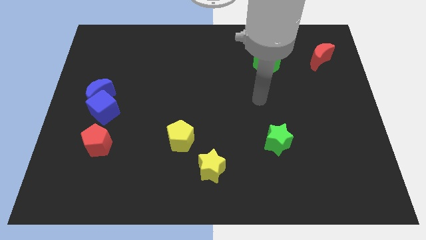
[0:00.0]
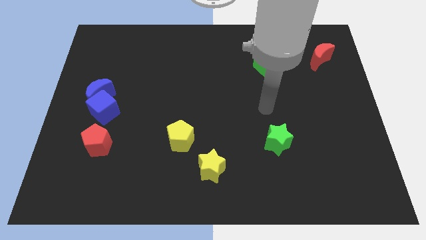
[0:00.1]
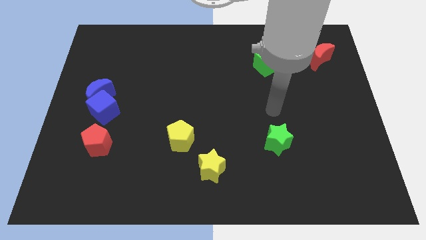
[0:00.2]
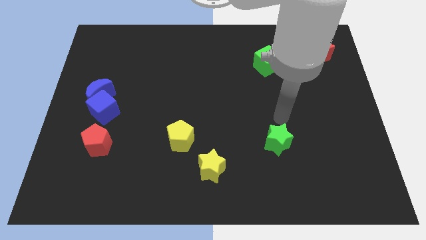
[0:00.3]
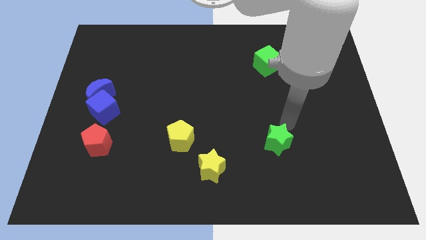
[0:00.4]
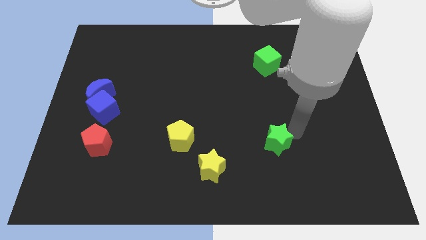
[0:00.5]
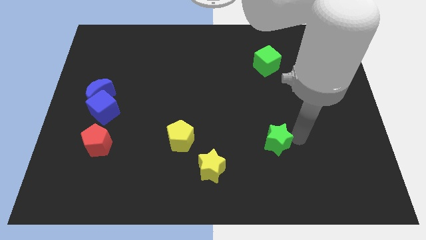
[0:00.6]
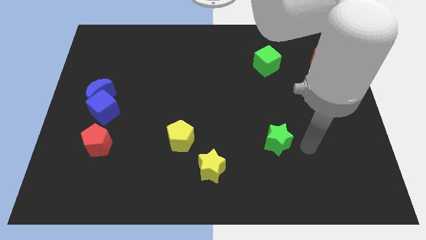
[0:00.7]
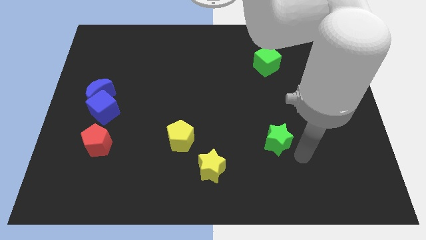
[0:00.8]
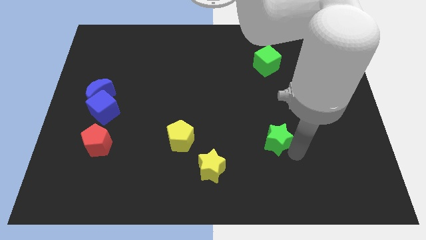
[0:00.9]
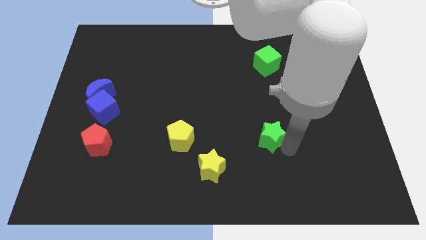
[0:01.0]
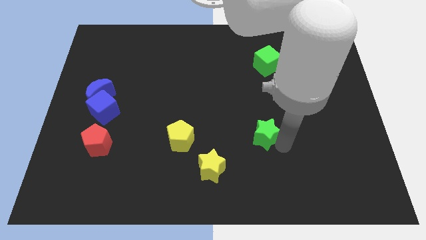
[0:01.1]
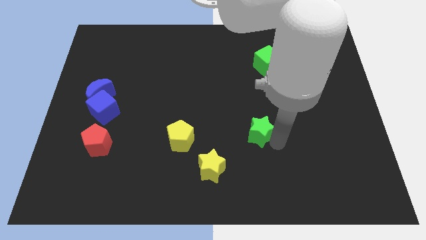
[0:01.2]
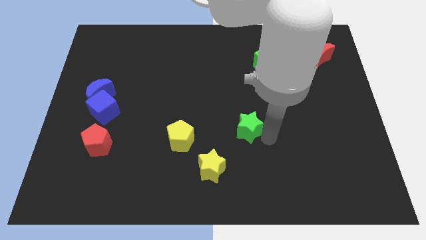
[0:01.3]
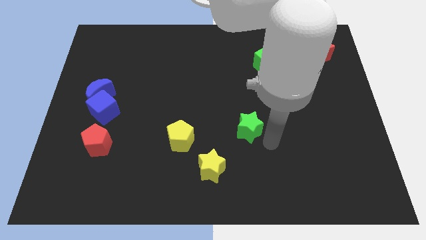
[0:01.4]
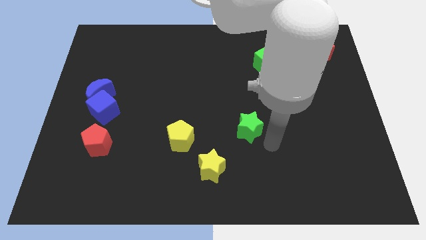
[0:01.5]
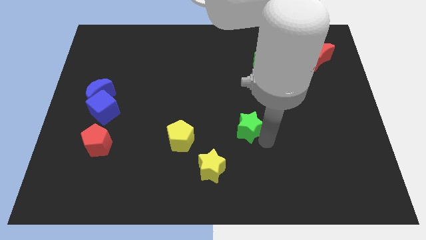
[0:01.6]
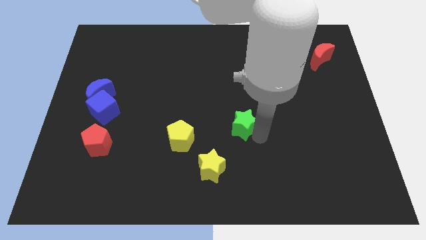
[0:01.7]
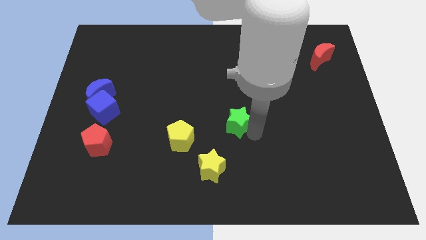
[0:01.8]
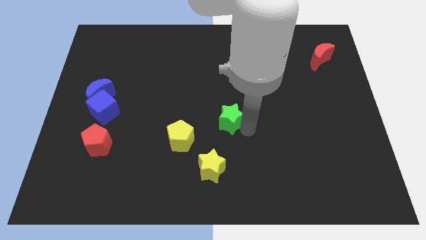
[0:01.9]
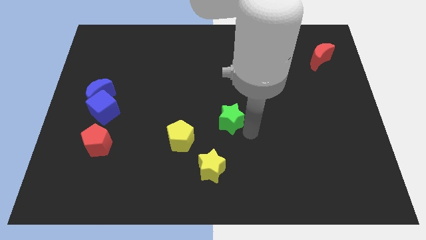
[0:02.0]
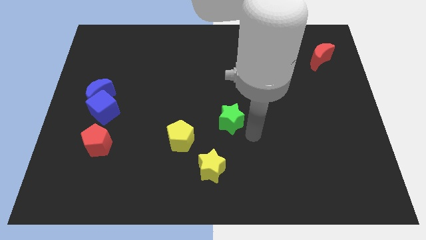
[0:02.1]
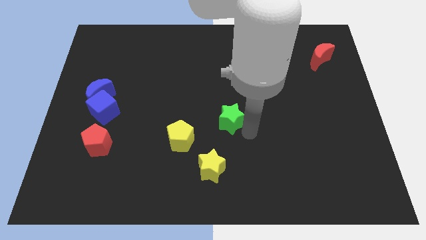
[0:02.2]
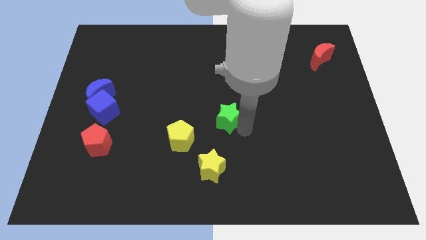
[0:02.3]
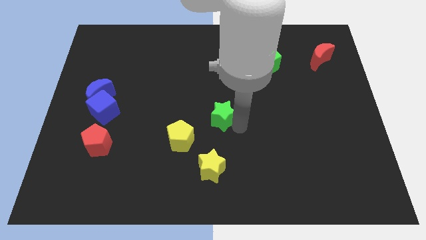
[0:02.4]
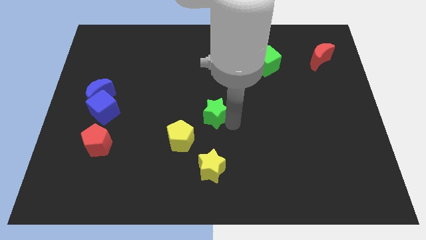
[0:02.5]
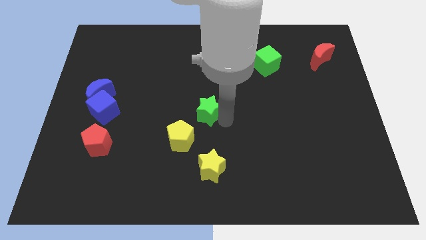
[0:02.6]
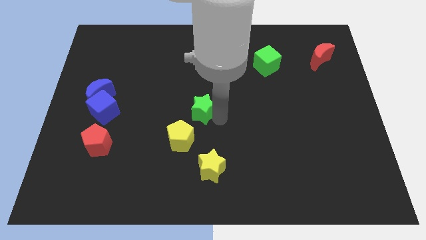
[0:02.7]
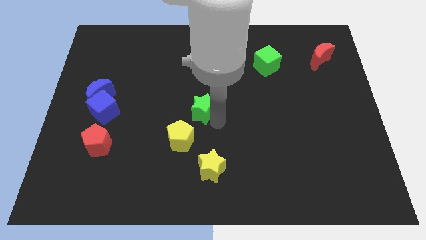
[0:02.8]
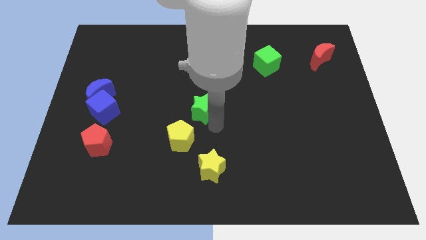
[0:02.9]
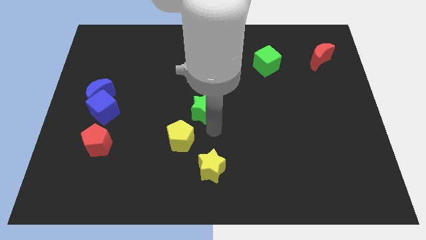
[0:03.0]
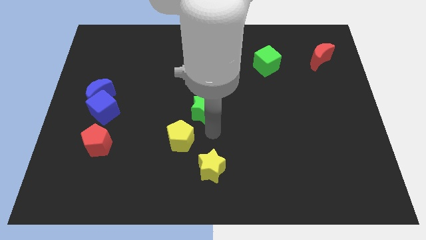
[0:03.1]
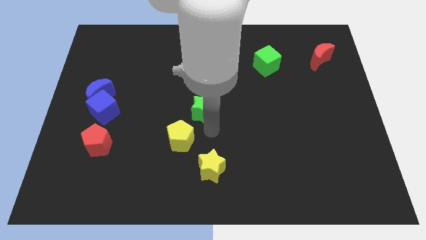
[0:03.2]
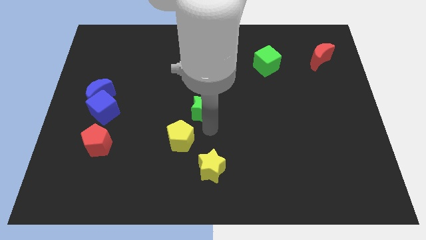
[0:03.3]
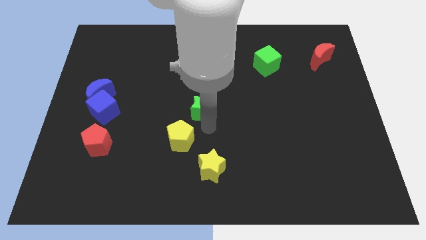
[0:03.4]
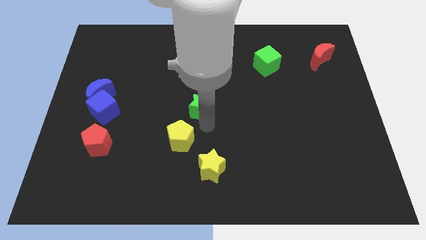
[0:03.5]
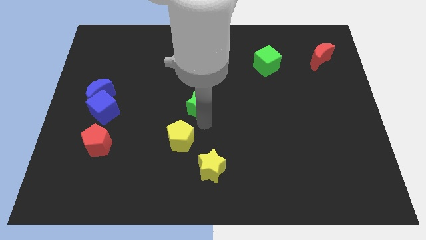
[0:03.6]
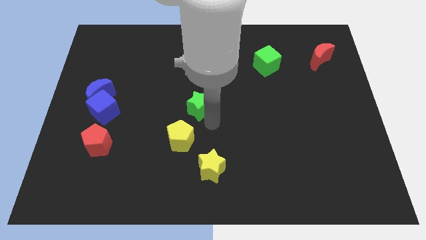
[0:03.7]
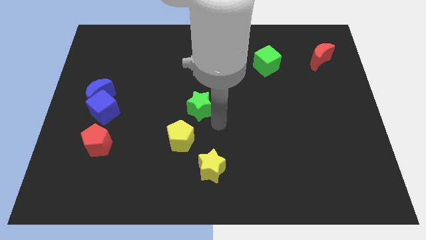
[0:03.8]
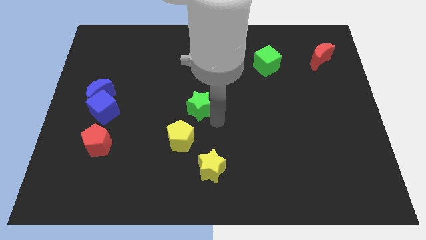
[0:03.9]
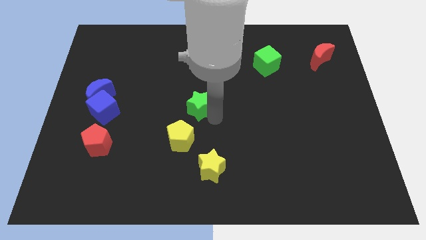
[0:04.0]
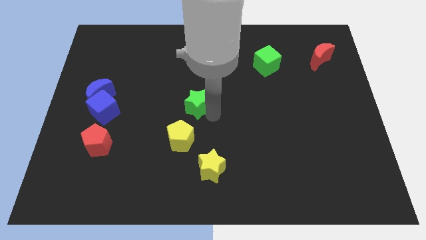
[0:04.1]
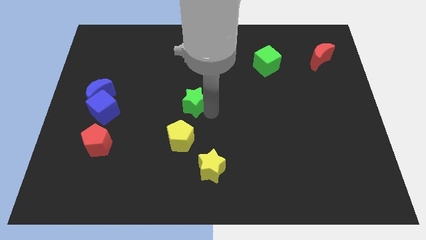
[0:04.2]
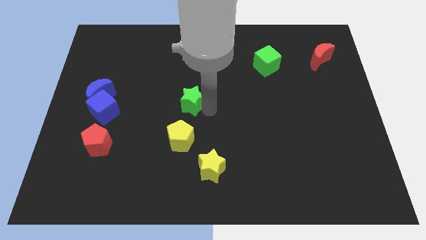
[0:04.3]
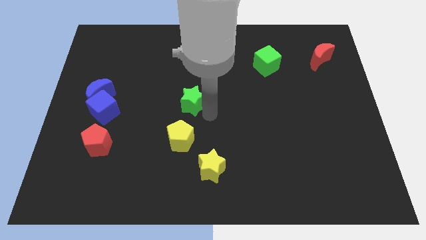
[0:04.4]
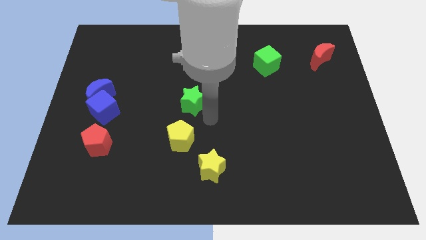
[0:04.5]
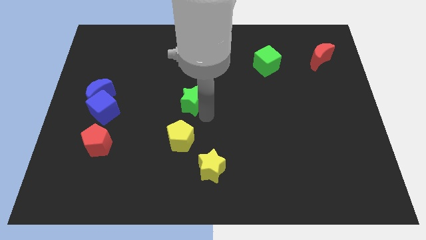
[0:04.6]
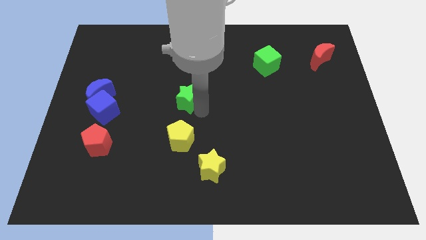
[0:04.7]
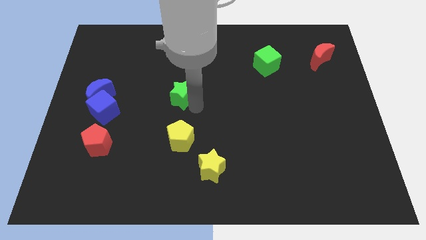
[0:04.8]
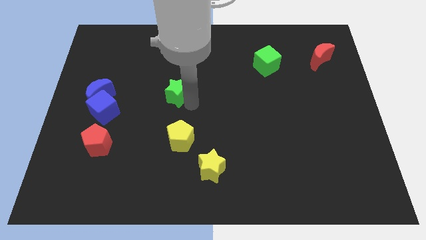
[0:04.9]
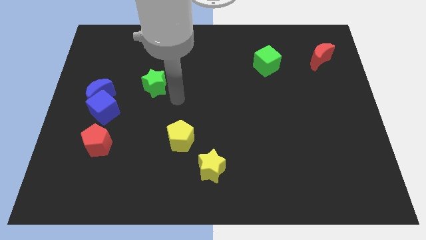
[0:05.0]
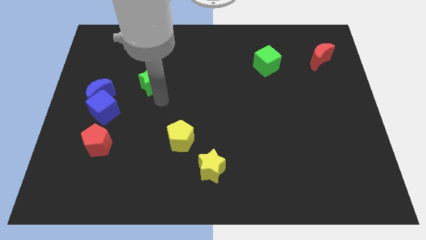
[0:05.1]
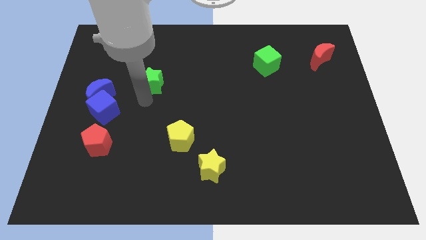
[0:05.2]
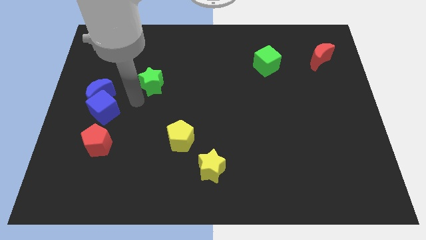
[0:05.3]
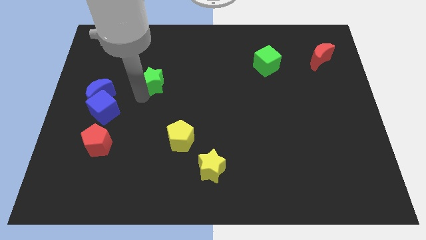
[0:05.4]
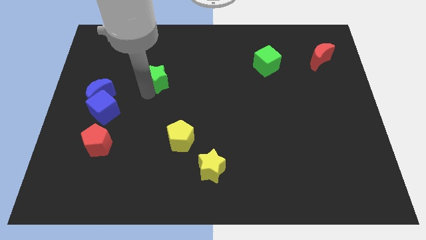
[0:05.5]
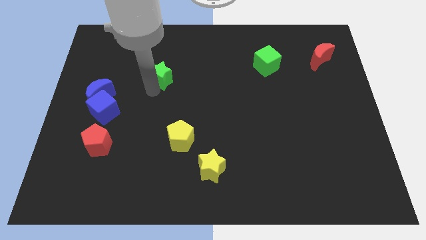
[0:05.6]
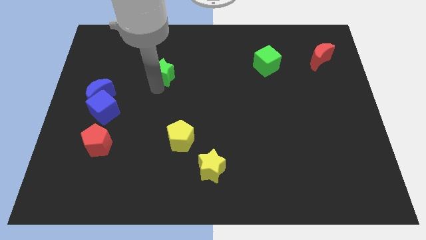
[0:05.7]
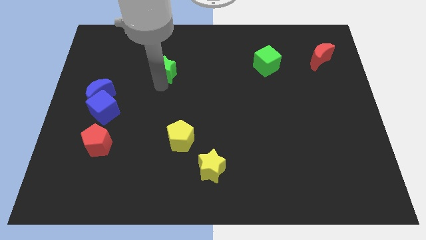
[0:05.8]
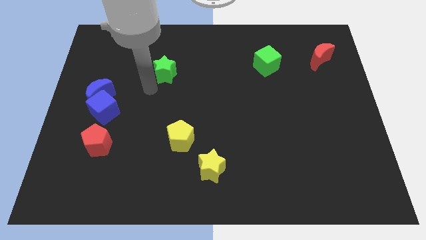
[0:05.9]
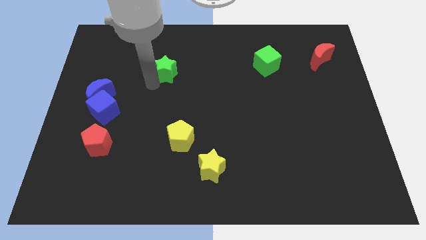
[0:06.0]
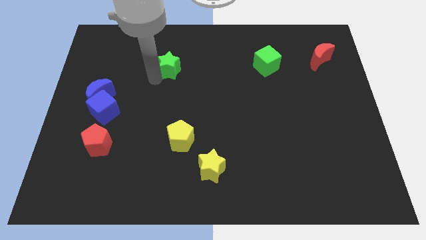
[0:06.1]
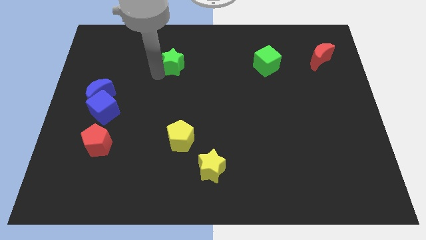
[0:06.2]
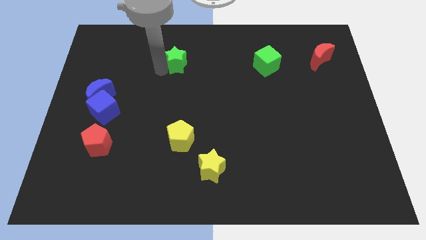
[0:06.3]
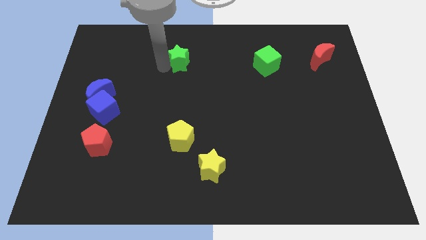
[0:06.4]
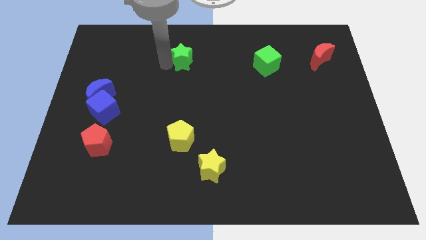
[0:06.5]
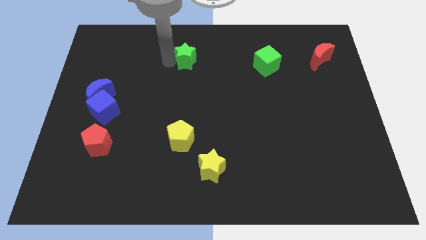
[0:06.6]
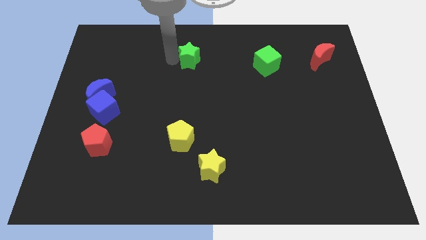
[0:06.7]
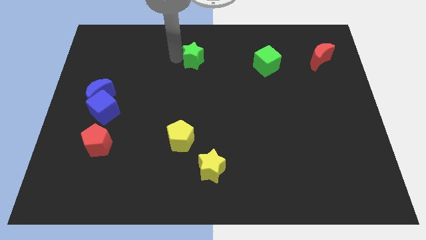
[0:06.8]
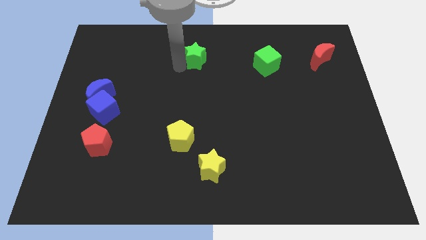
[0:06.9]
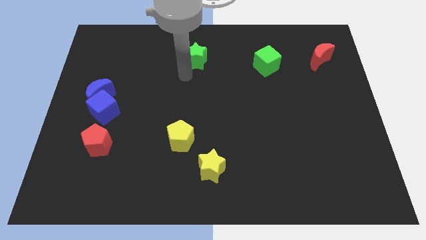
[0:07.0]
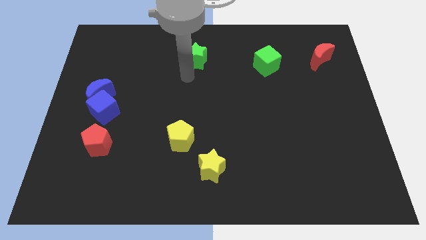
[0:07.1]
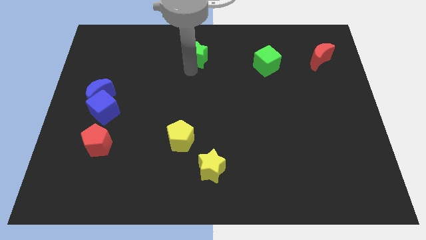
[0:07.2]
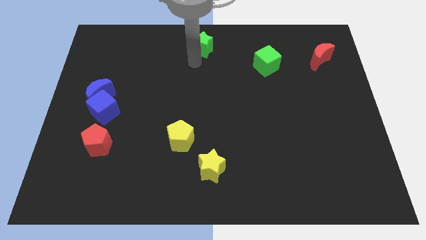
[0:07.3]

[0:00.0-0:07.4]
slide the green star to the top side
